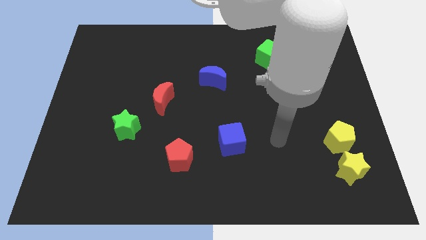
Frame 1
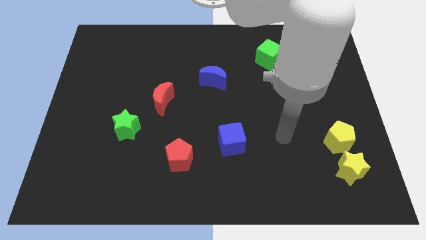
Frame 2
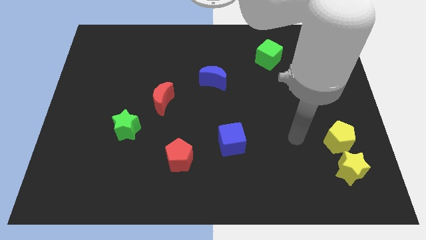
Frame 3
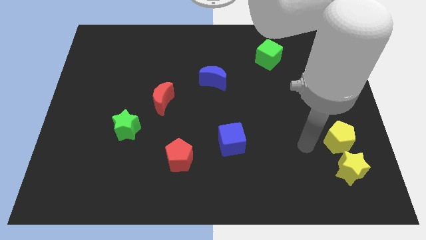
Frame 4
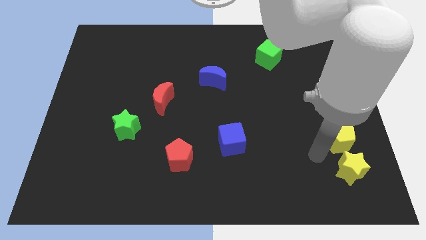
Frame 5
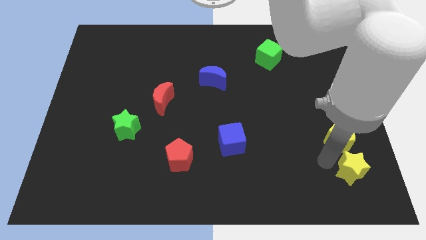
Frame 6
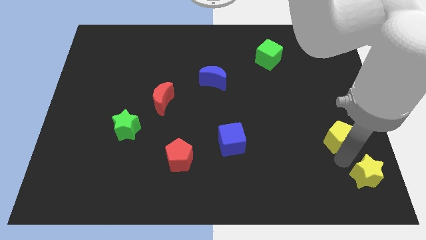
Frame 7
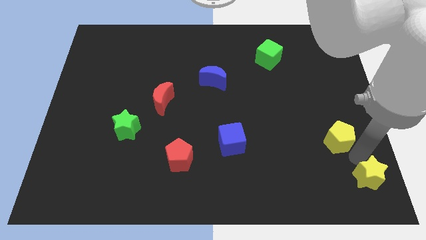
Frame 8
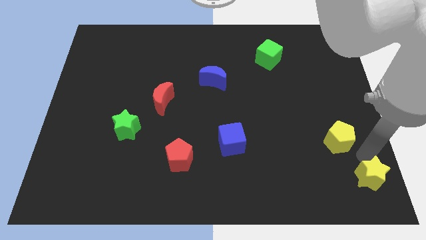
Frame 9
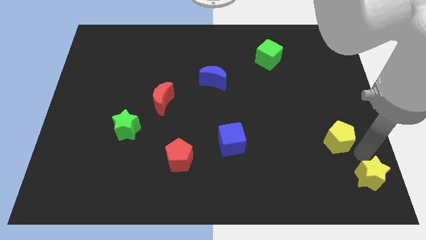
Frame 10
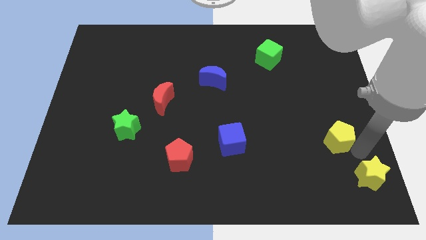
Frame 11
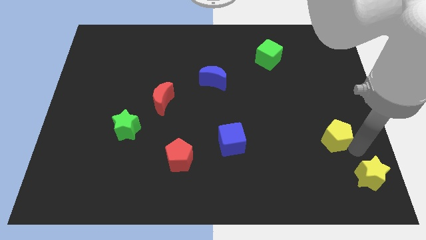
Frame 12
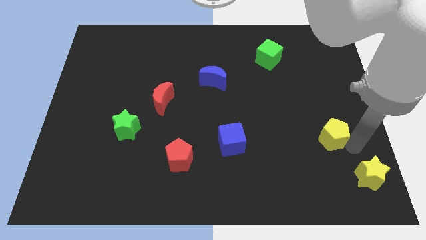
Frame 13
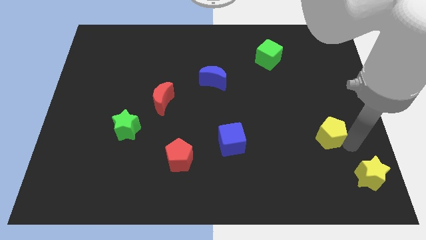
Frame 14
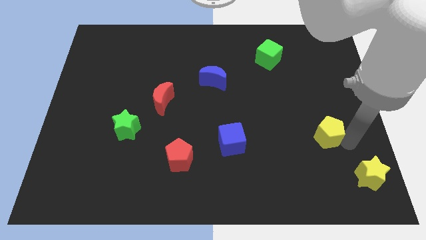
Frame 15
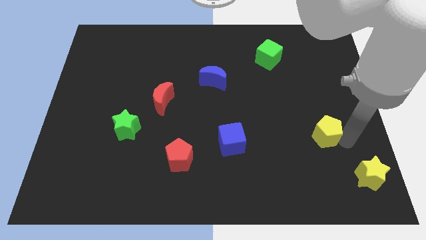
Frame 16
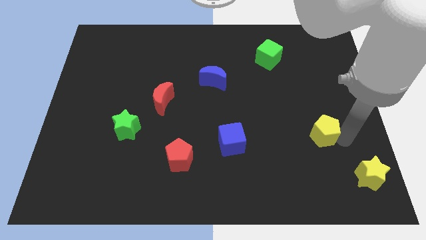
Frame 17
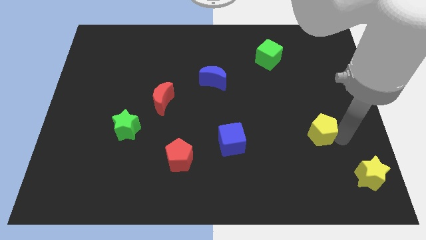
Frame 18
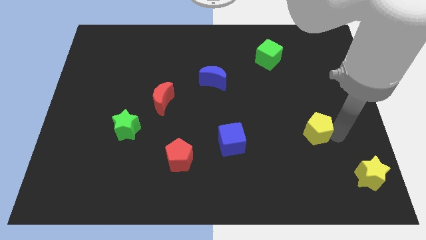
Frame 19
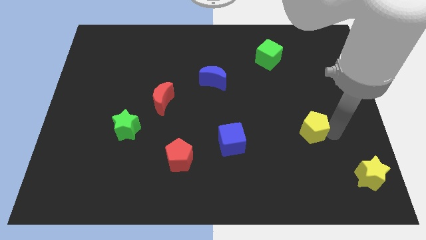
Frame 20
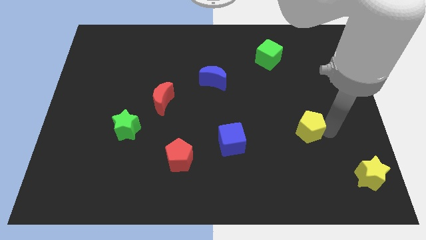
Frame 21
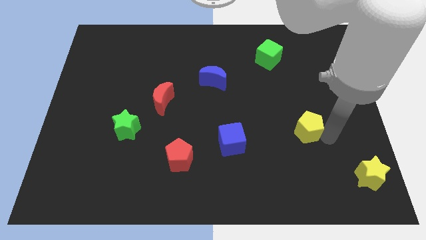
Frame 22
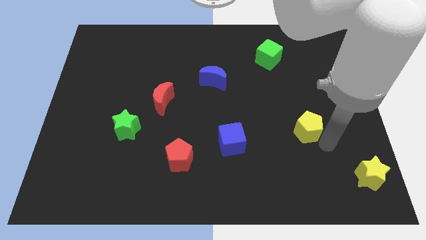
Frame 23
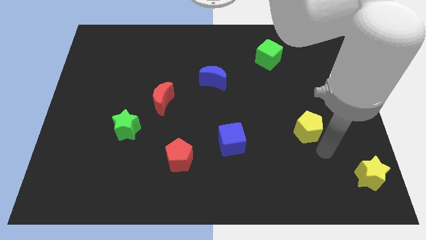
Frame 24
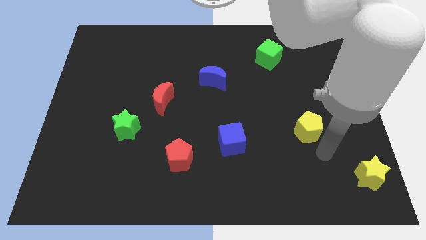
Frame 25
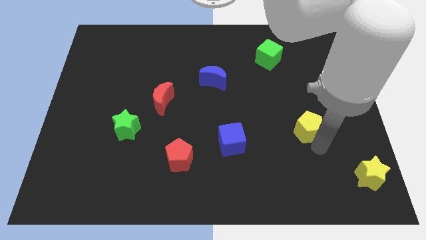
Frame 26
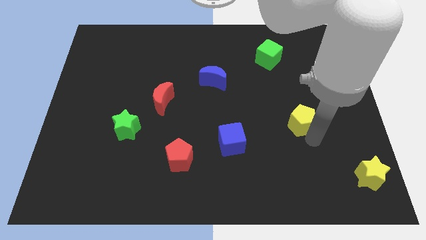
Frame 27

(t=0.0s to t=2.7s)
slightly slide the yellow pentagon up and left diagonally

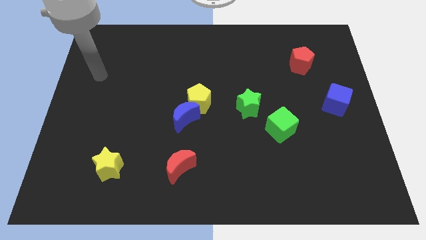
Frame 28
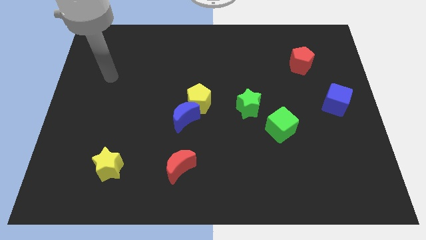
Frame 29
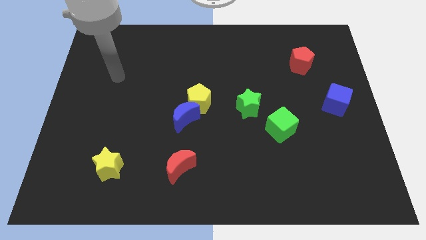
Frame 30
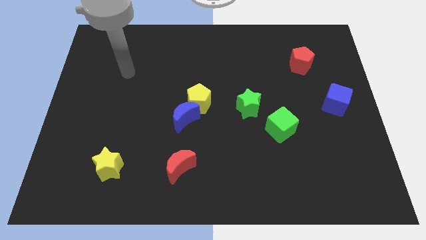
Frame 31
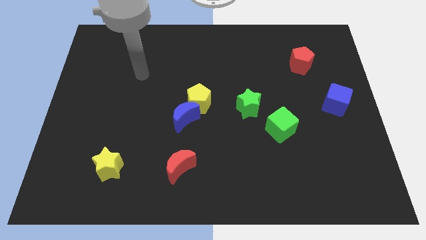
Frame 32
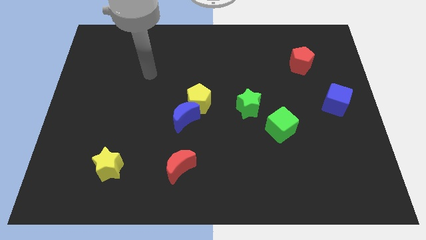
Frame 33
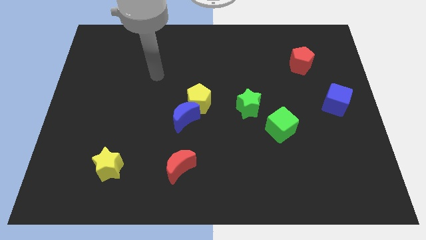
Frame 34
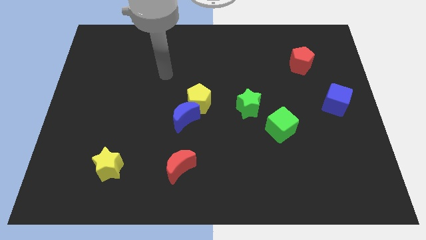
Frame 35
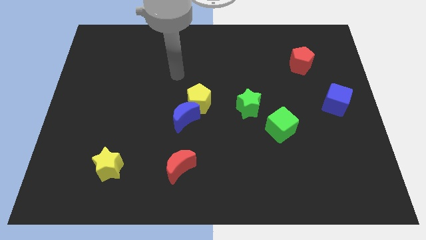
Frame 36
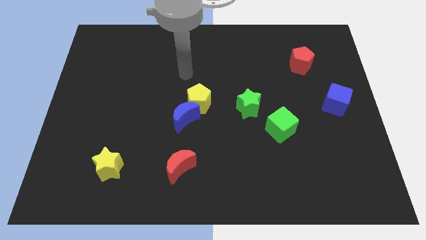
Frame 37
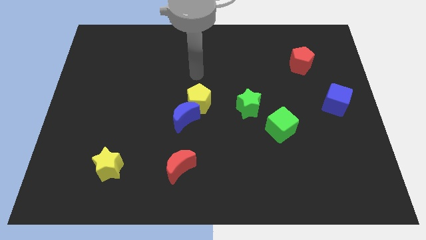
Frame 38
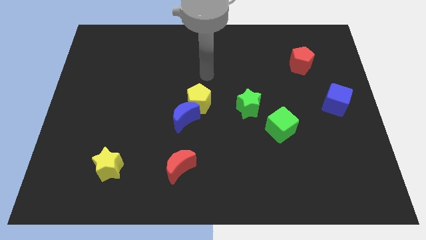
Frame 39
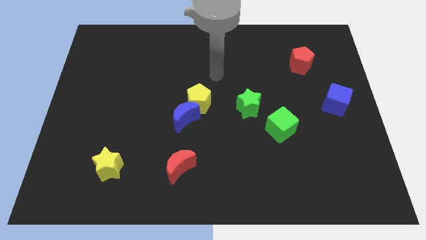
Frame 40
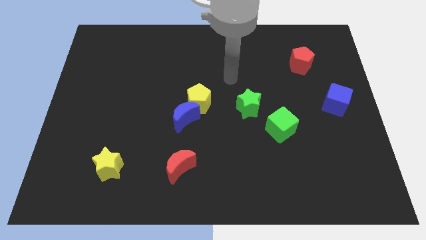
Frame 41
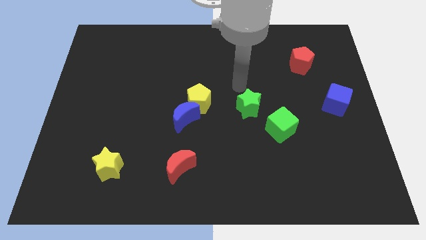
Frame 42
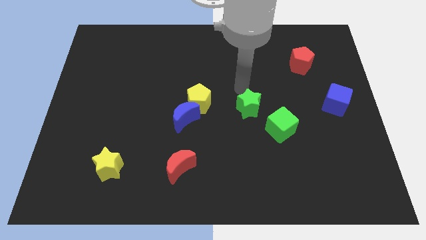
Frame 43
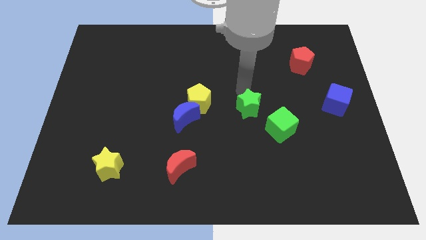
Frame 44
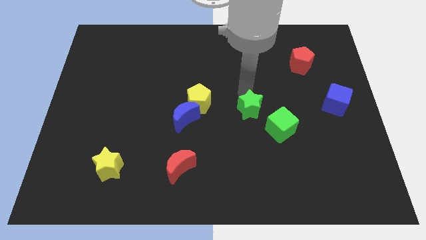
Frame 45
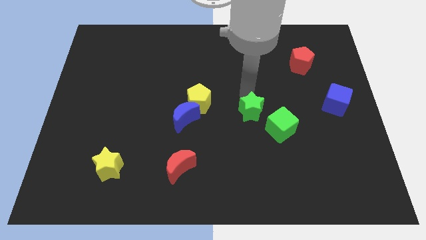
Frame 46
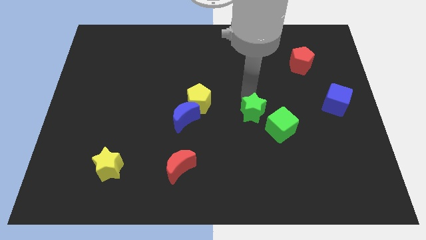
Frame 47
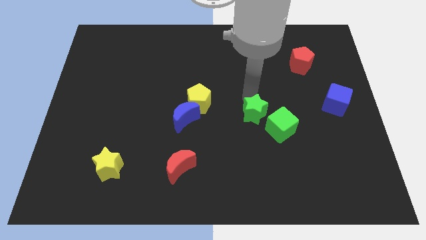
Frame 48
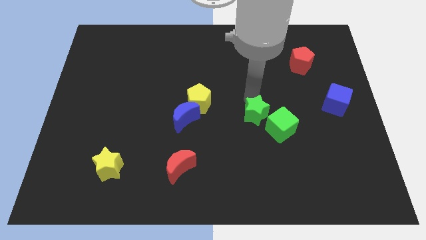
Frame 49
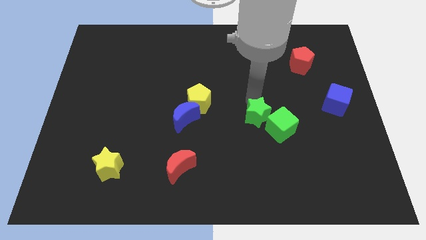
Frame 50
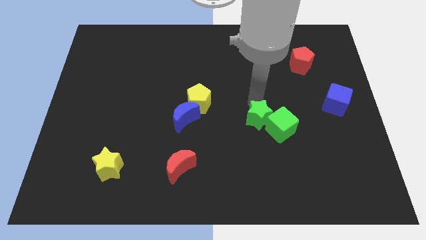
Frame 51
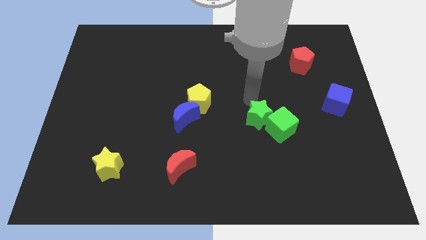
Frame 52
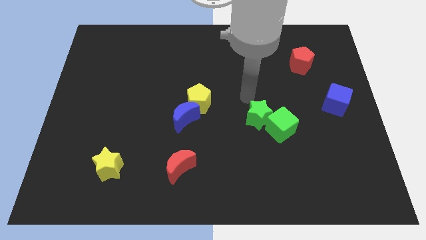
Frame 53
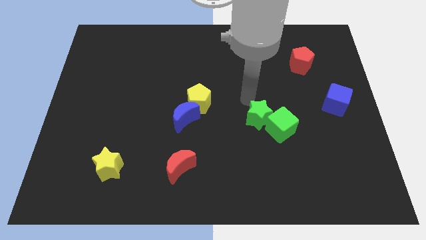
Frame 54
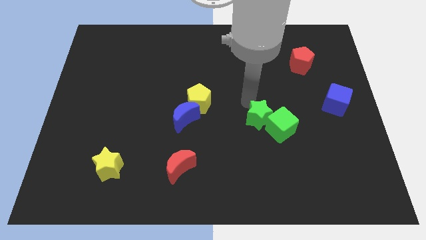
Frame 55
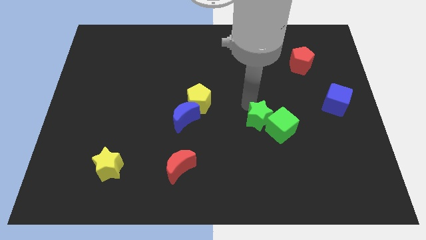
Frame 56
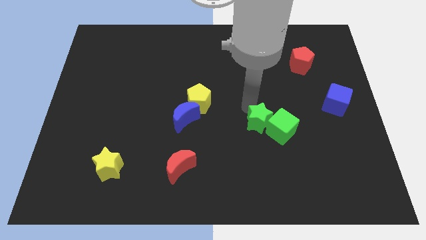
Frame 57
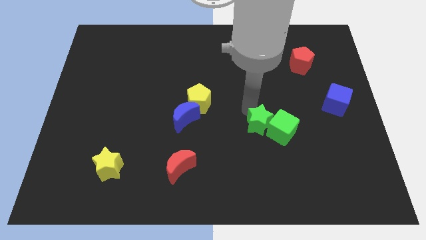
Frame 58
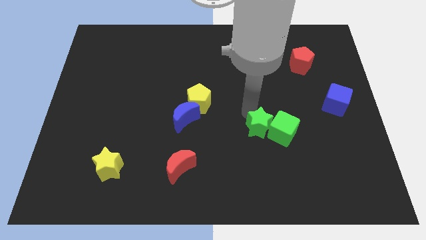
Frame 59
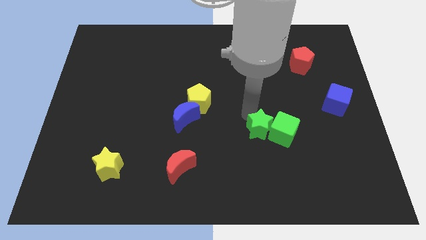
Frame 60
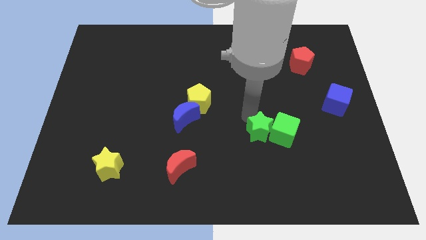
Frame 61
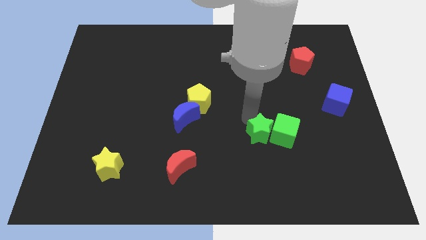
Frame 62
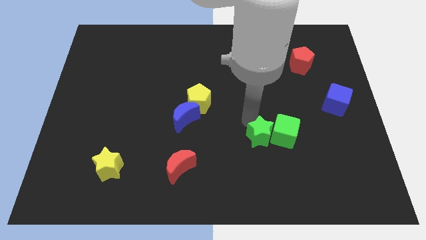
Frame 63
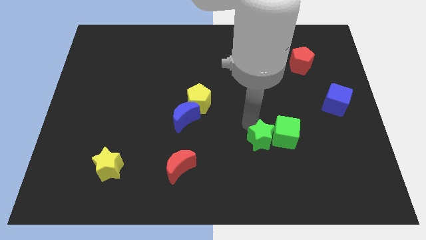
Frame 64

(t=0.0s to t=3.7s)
slightly slide the green star down and to the right

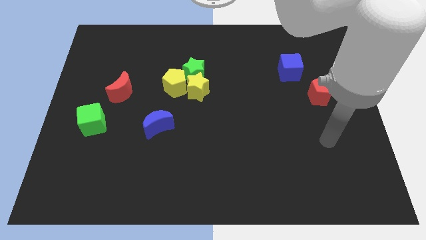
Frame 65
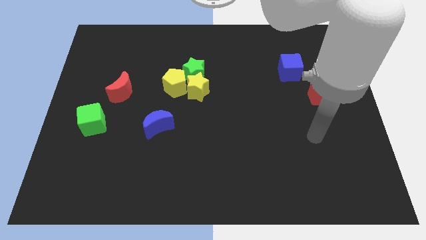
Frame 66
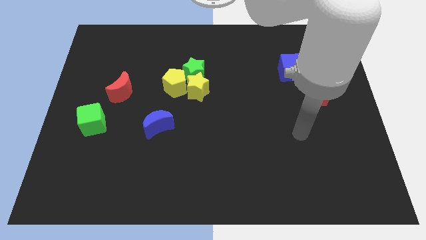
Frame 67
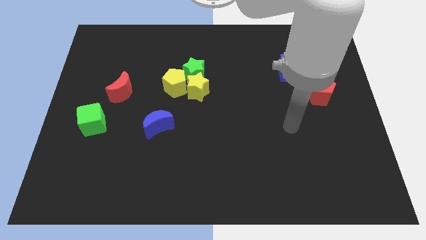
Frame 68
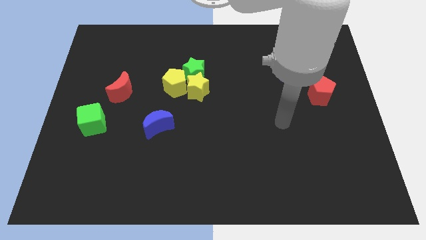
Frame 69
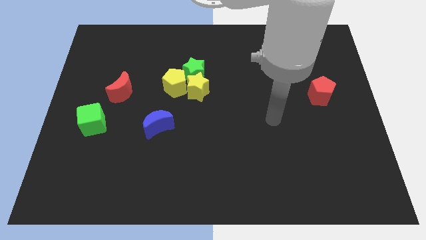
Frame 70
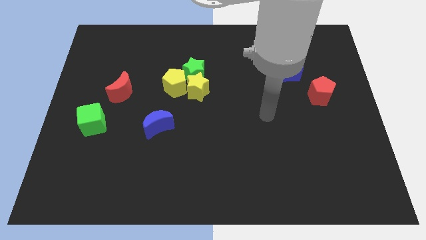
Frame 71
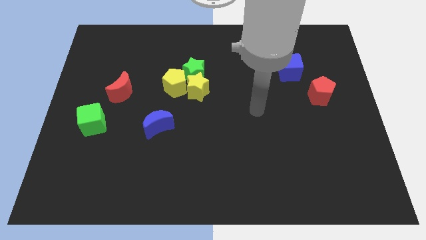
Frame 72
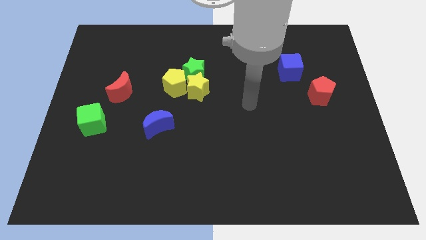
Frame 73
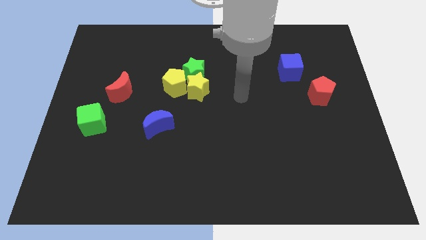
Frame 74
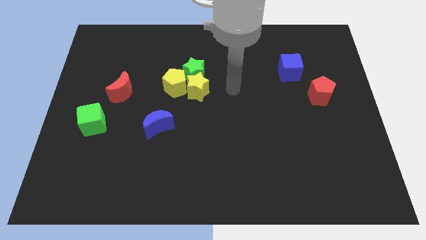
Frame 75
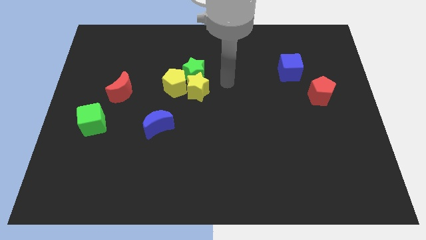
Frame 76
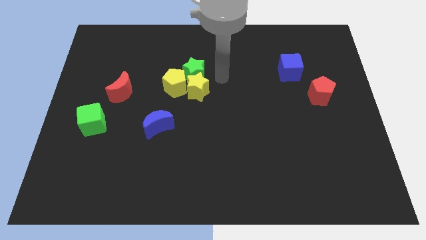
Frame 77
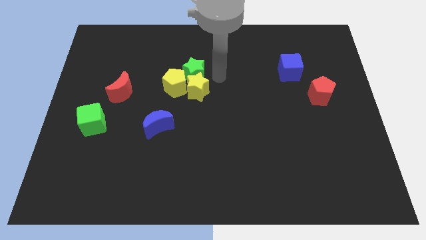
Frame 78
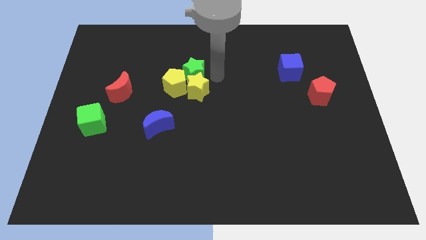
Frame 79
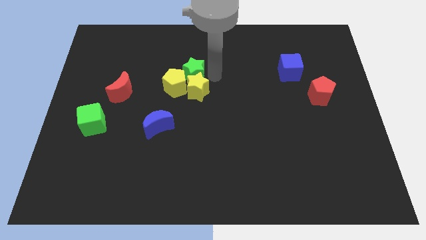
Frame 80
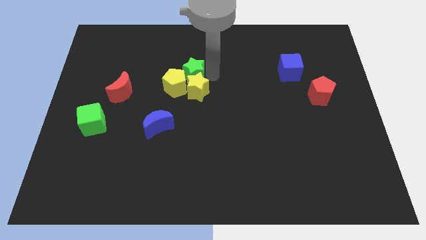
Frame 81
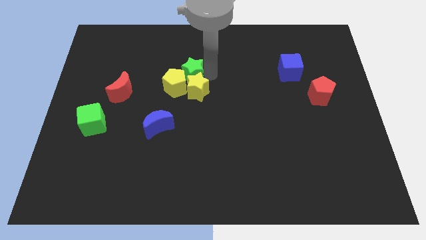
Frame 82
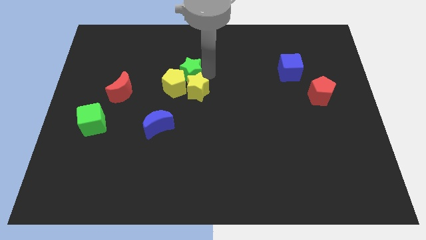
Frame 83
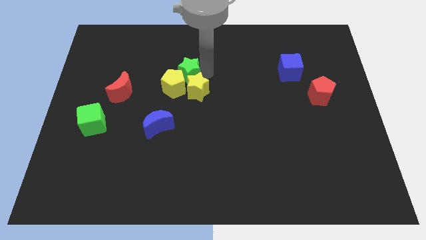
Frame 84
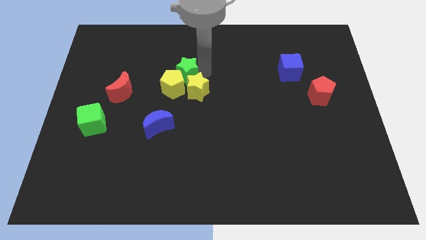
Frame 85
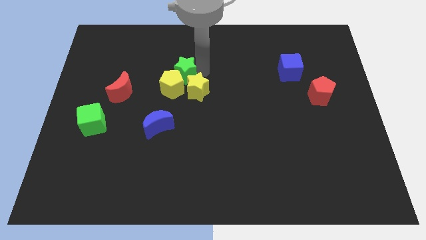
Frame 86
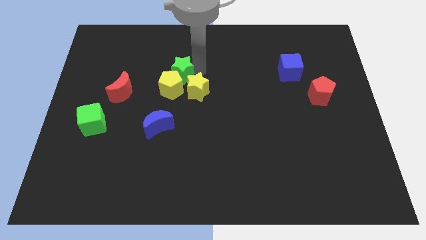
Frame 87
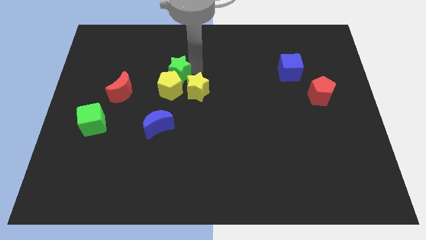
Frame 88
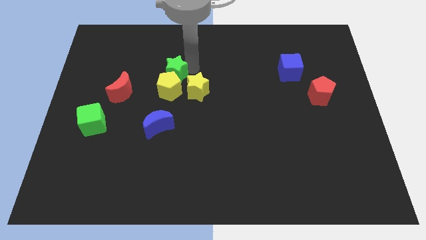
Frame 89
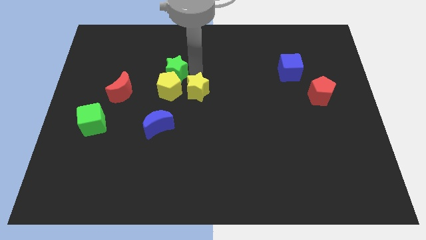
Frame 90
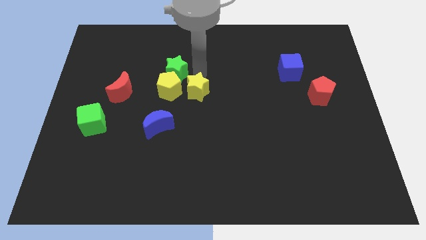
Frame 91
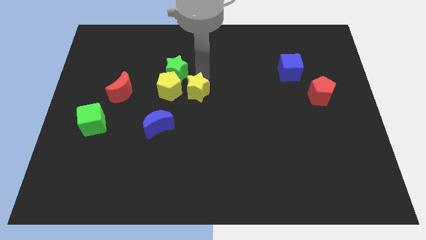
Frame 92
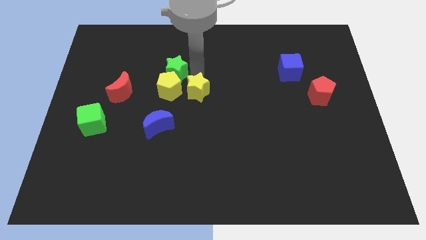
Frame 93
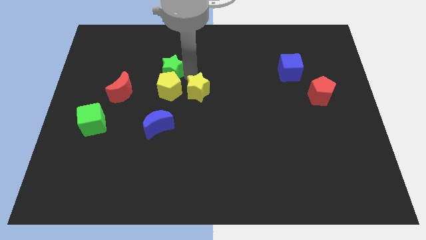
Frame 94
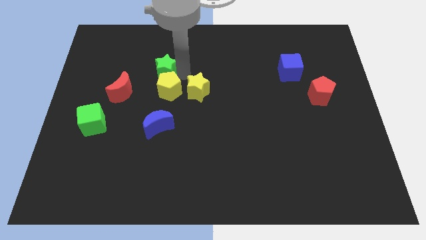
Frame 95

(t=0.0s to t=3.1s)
push the green star somewhat left
